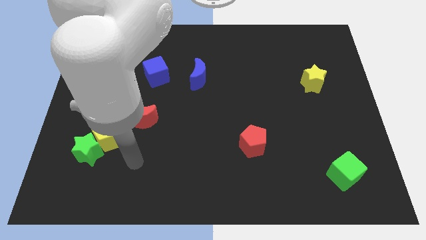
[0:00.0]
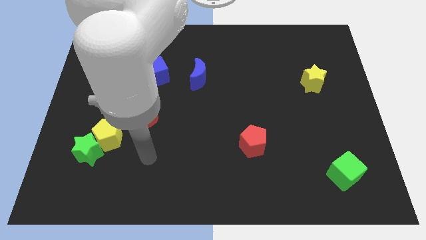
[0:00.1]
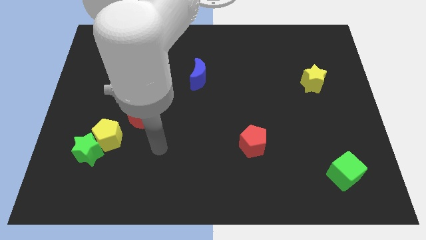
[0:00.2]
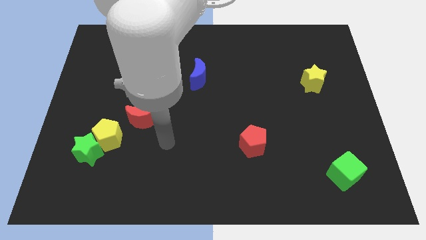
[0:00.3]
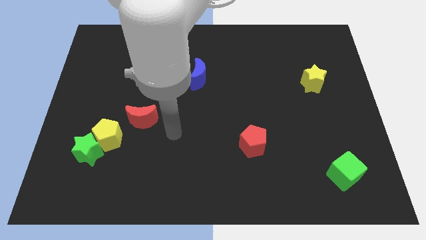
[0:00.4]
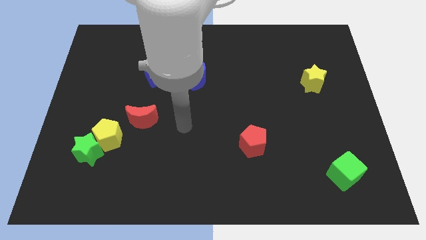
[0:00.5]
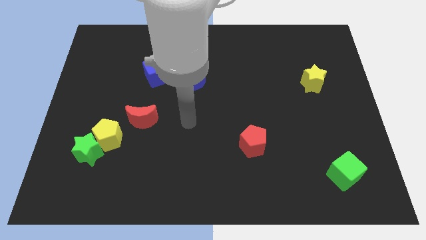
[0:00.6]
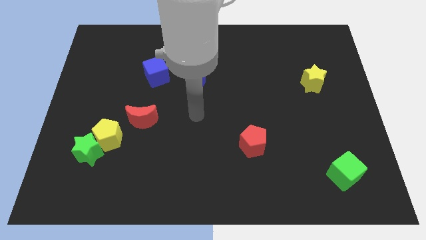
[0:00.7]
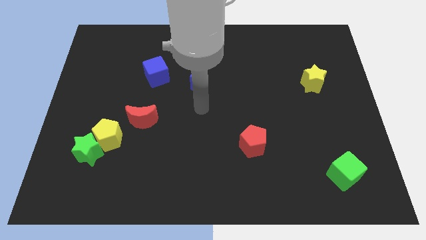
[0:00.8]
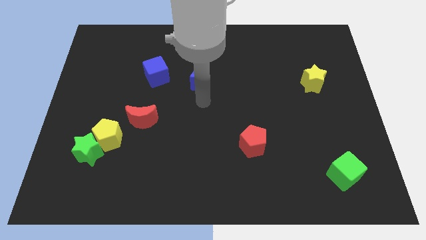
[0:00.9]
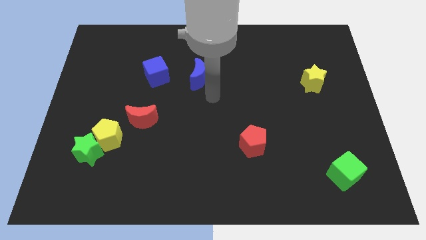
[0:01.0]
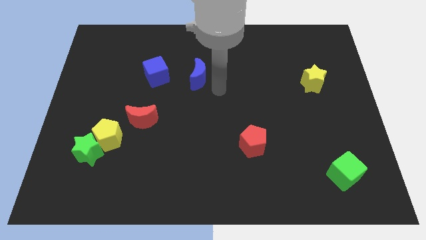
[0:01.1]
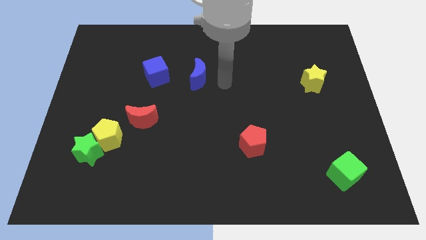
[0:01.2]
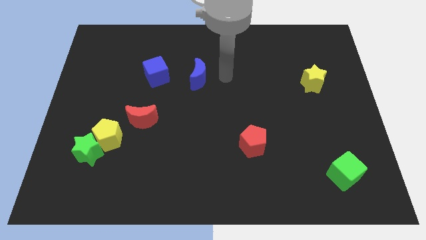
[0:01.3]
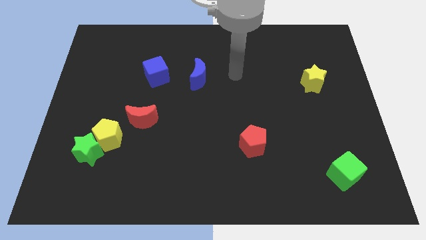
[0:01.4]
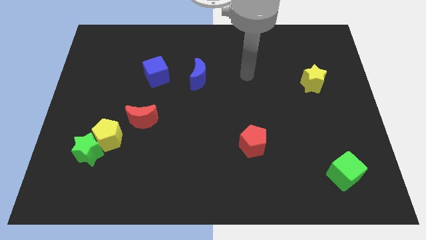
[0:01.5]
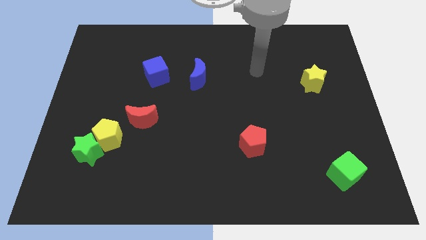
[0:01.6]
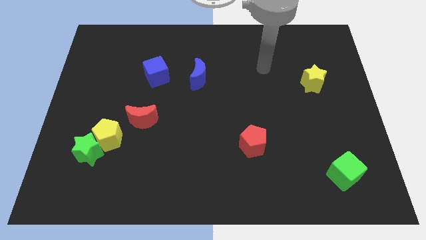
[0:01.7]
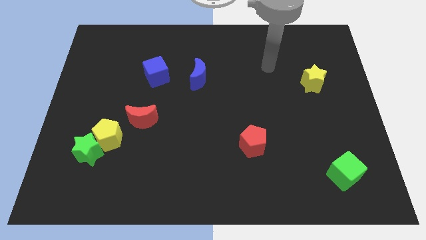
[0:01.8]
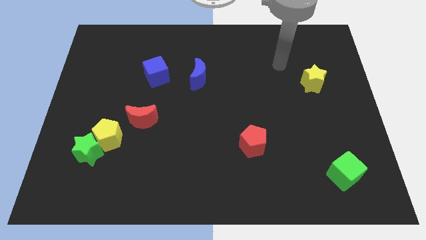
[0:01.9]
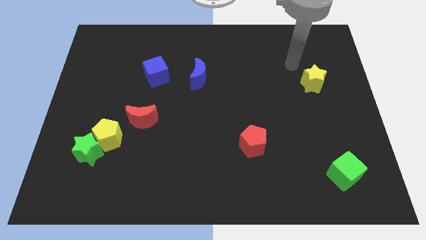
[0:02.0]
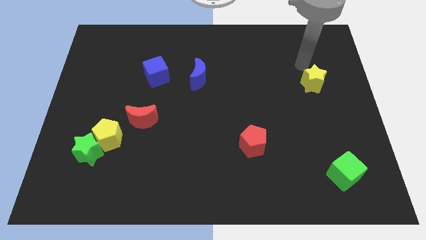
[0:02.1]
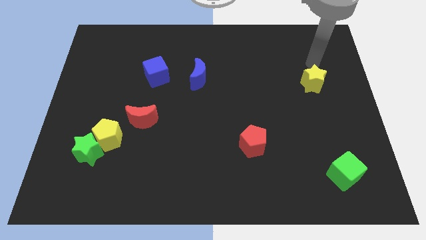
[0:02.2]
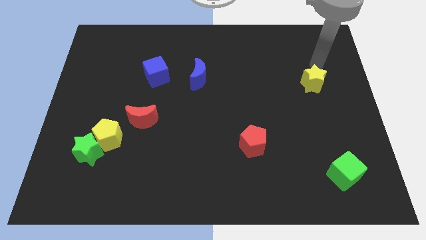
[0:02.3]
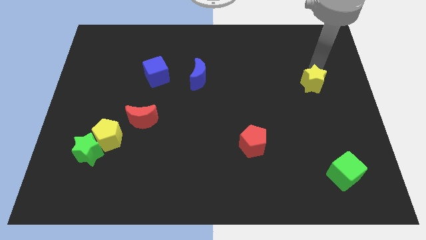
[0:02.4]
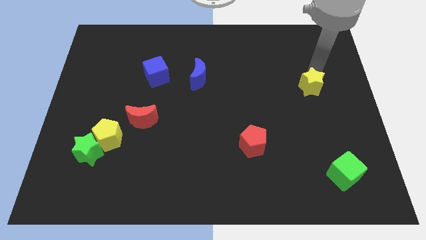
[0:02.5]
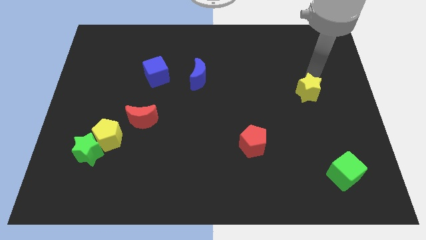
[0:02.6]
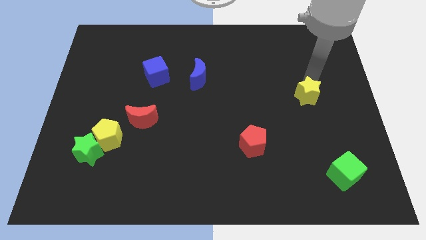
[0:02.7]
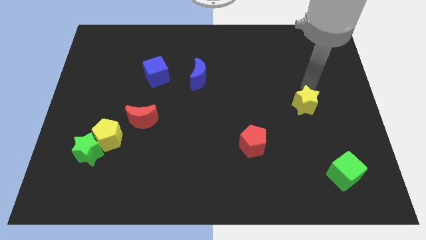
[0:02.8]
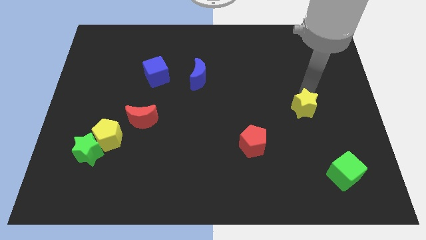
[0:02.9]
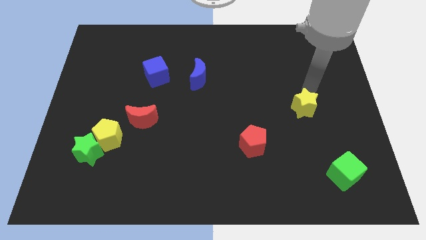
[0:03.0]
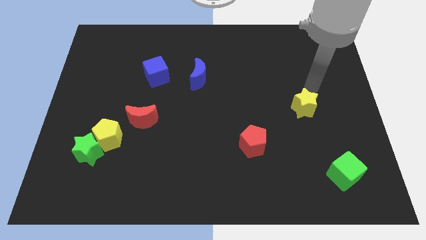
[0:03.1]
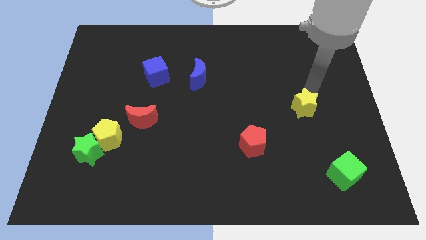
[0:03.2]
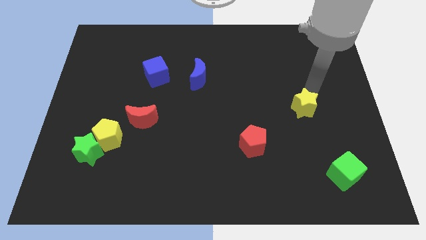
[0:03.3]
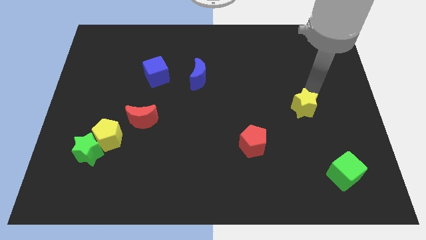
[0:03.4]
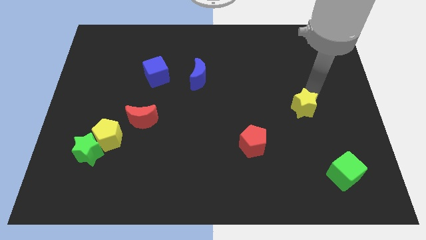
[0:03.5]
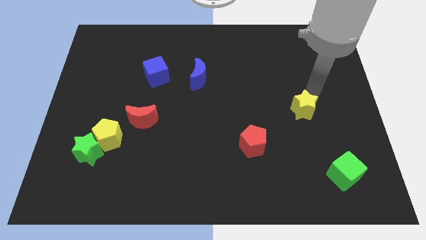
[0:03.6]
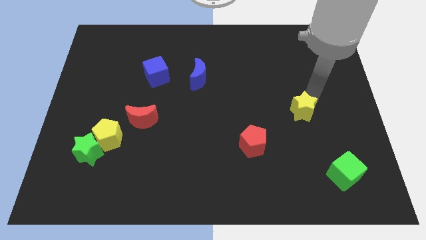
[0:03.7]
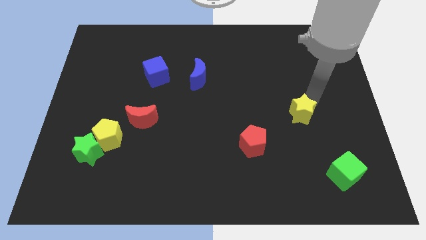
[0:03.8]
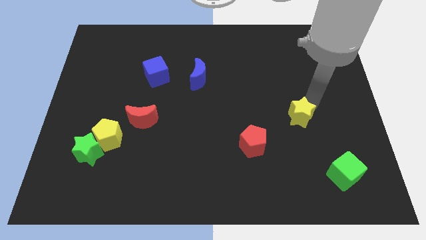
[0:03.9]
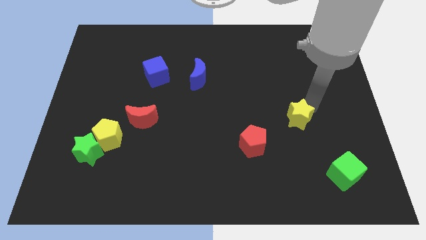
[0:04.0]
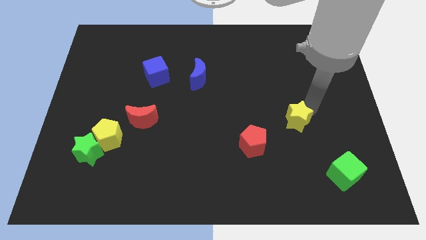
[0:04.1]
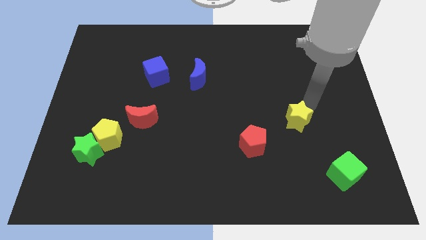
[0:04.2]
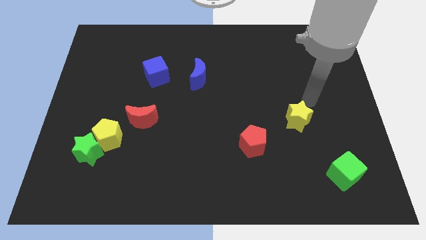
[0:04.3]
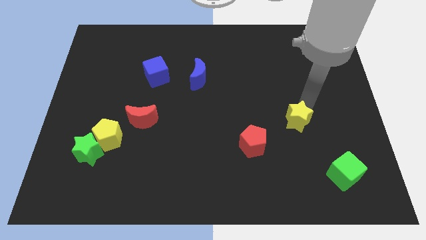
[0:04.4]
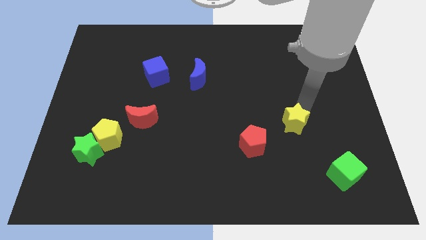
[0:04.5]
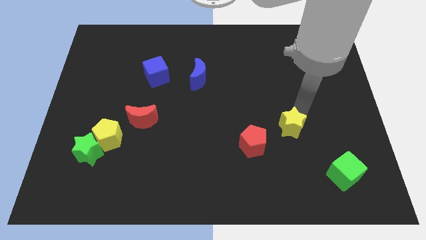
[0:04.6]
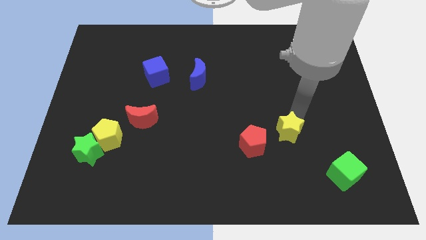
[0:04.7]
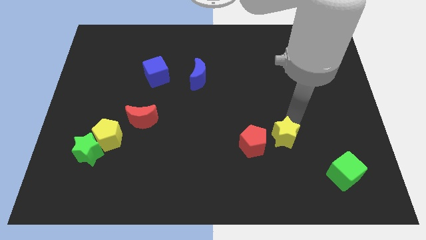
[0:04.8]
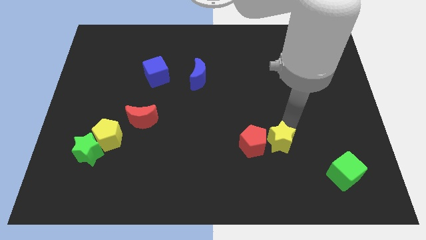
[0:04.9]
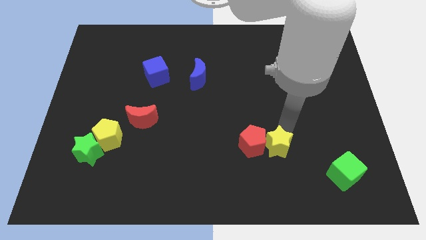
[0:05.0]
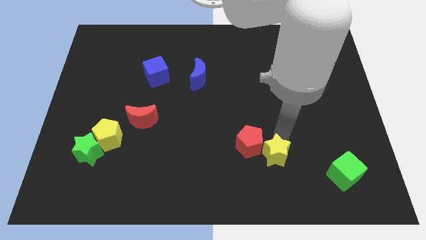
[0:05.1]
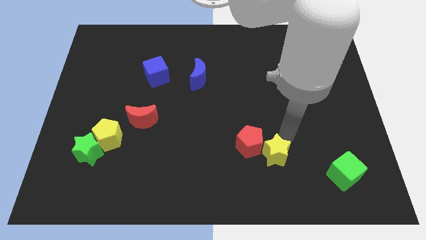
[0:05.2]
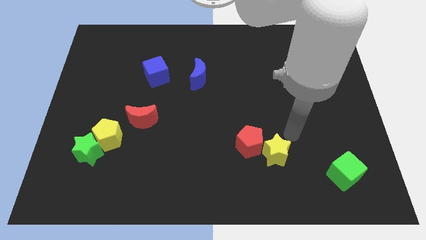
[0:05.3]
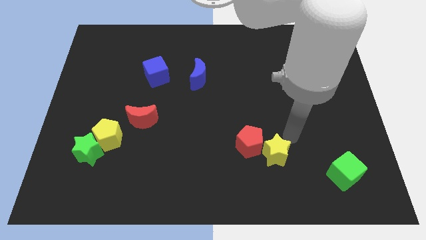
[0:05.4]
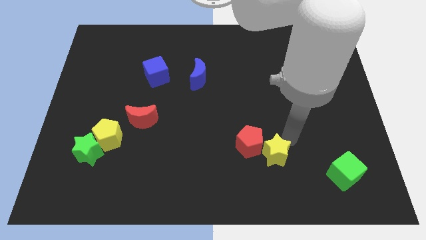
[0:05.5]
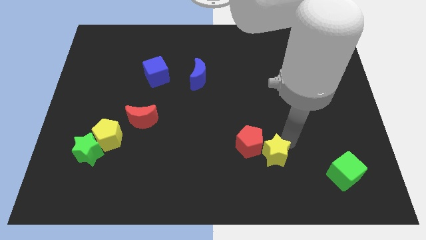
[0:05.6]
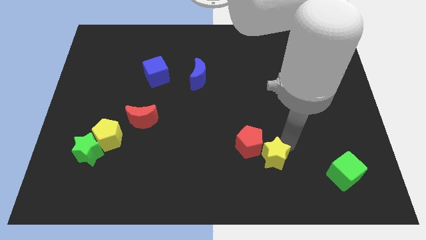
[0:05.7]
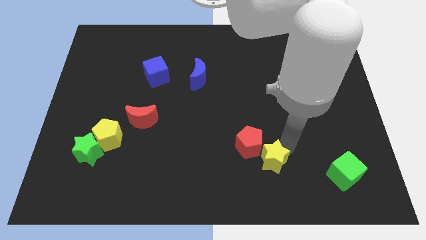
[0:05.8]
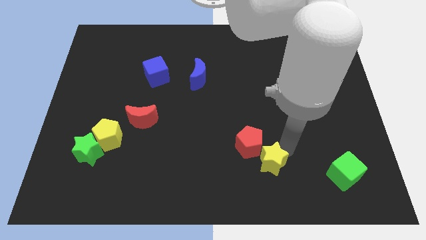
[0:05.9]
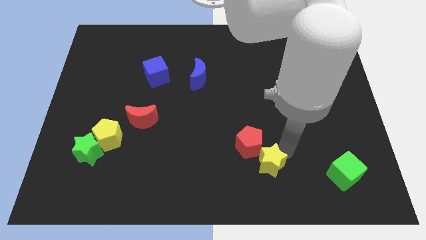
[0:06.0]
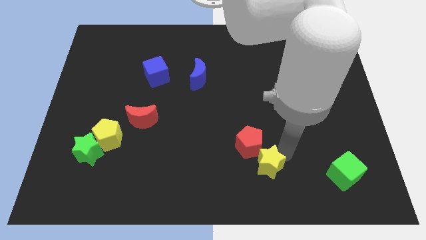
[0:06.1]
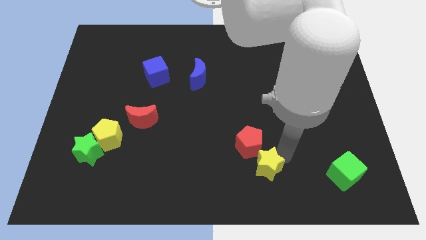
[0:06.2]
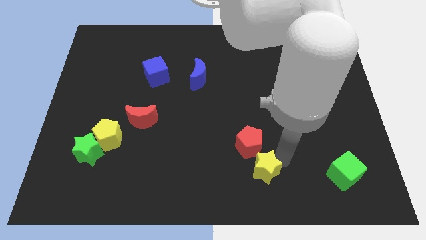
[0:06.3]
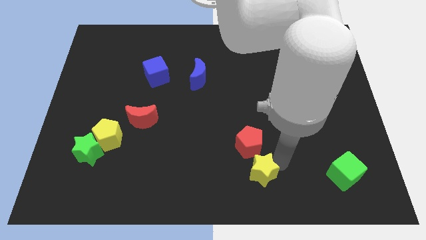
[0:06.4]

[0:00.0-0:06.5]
slide the yellow star to the bottom
